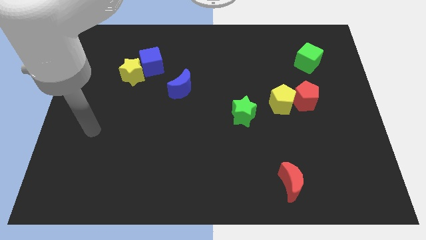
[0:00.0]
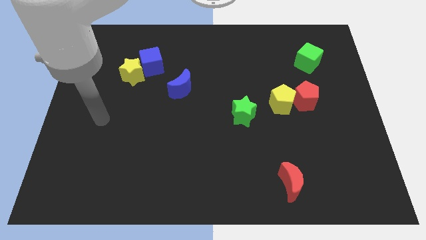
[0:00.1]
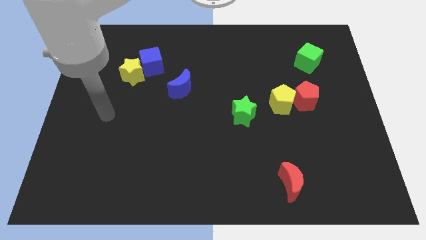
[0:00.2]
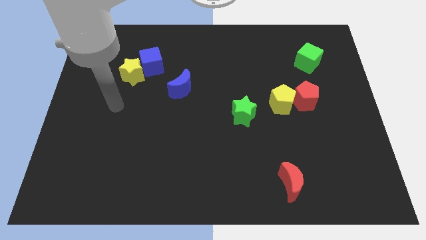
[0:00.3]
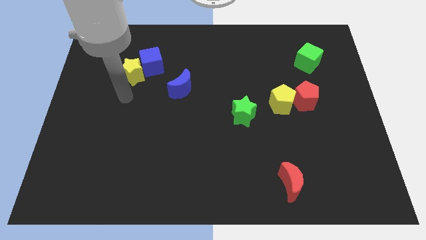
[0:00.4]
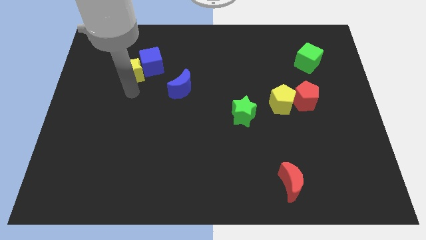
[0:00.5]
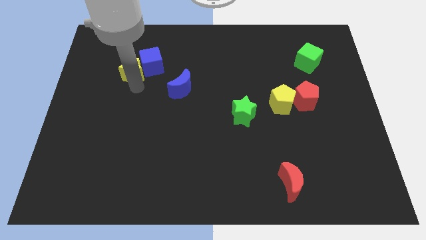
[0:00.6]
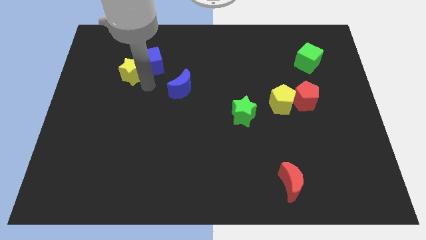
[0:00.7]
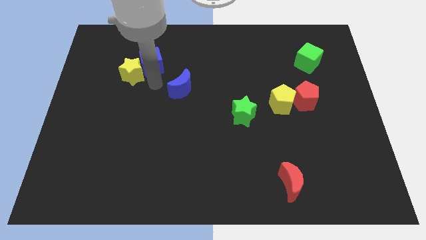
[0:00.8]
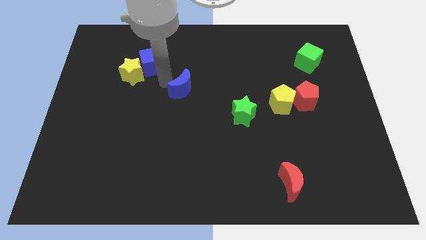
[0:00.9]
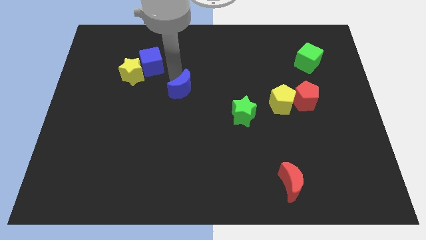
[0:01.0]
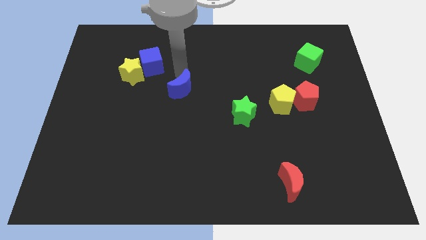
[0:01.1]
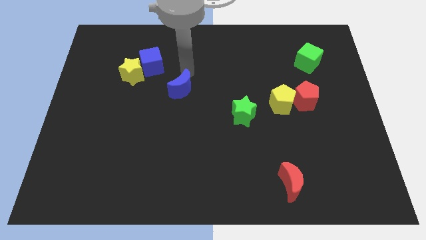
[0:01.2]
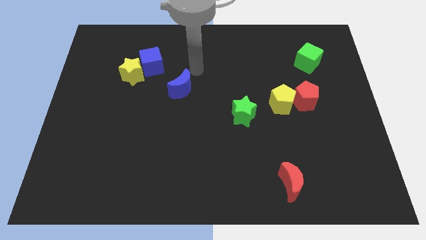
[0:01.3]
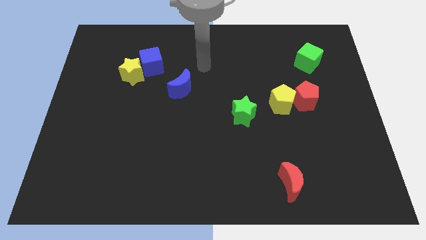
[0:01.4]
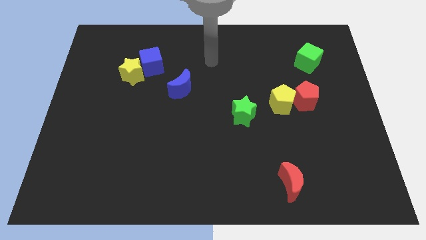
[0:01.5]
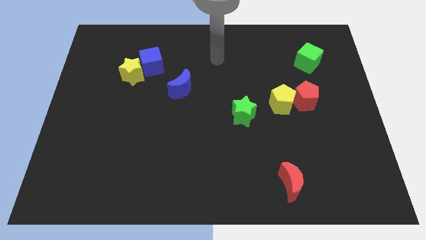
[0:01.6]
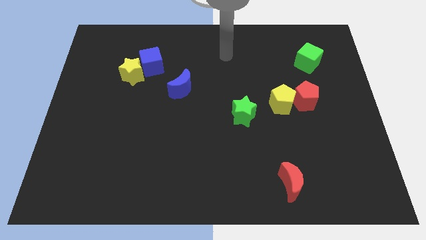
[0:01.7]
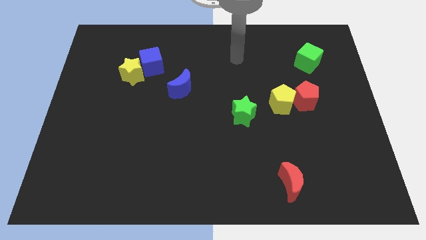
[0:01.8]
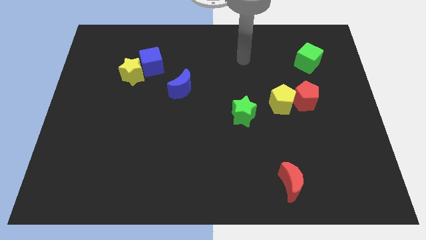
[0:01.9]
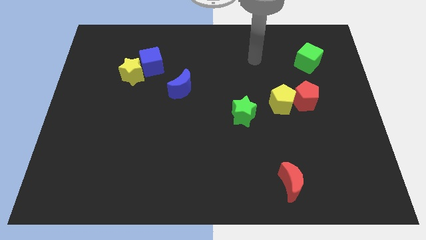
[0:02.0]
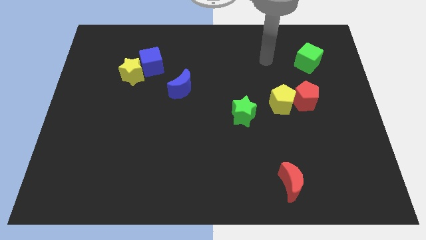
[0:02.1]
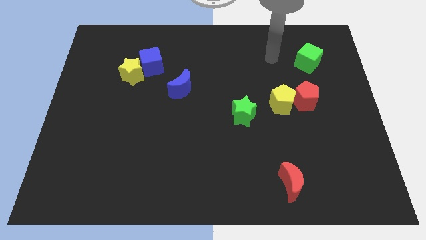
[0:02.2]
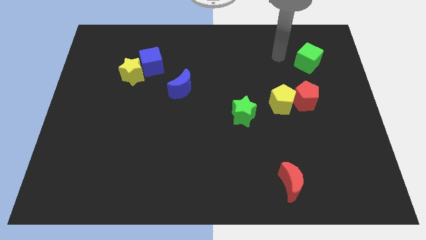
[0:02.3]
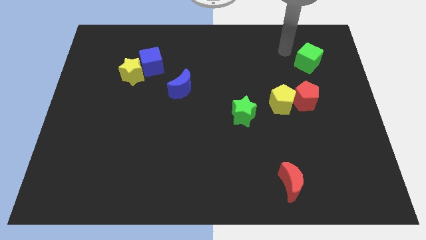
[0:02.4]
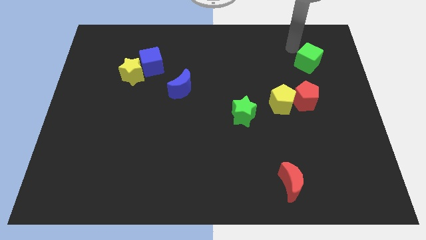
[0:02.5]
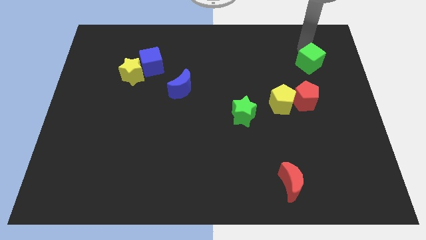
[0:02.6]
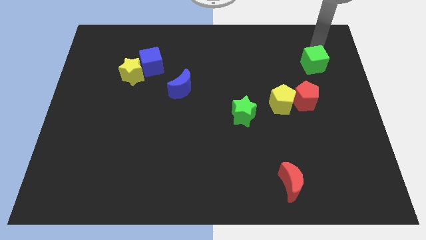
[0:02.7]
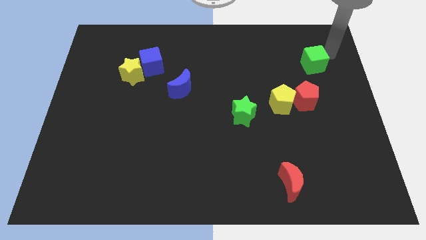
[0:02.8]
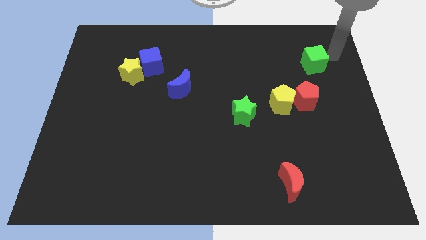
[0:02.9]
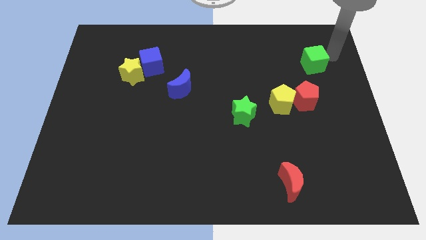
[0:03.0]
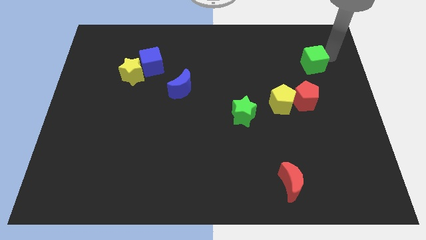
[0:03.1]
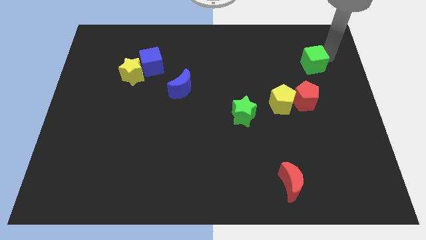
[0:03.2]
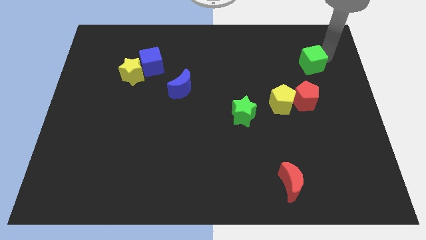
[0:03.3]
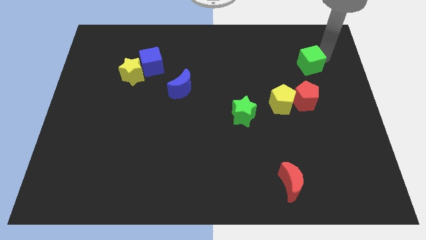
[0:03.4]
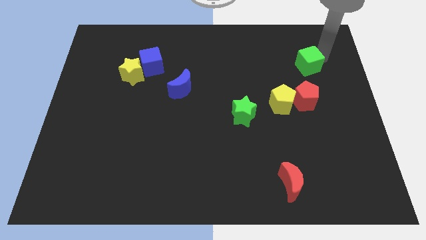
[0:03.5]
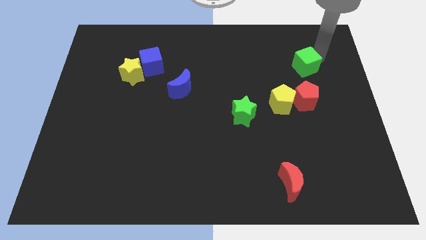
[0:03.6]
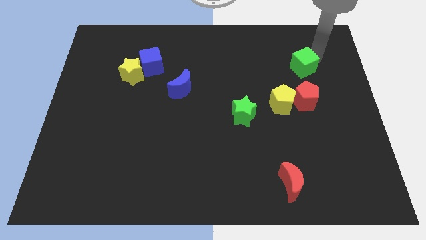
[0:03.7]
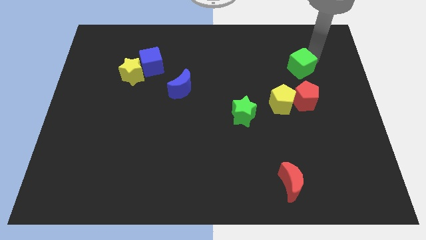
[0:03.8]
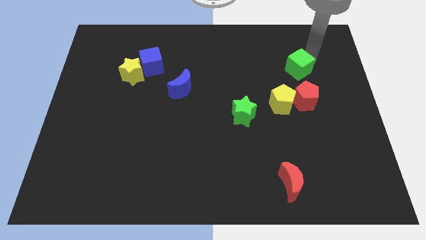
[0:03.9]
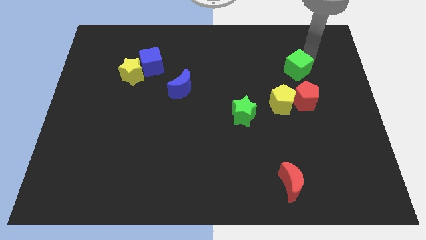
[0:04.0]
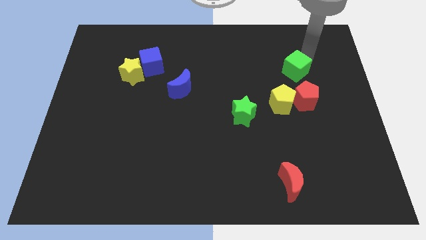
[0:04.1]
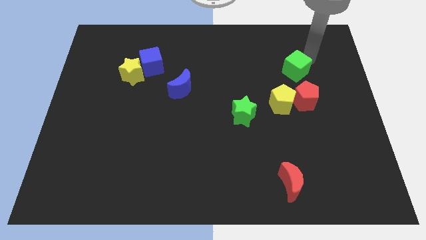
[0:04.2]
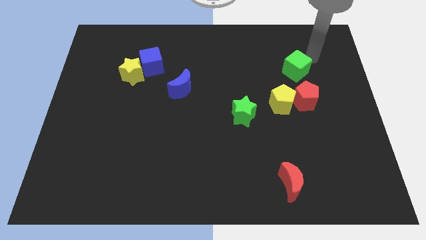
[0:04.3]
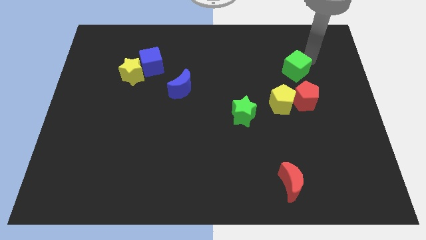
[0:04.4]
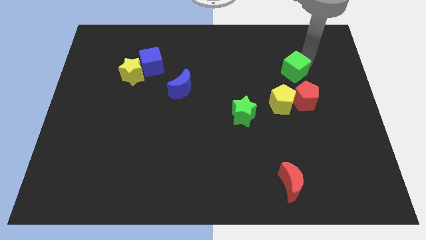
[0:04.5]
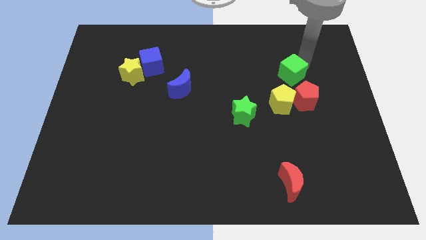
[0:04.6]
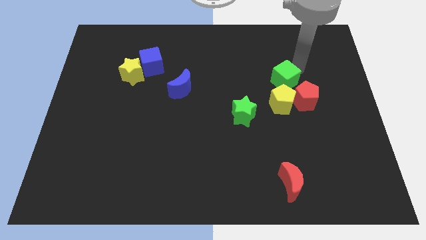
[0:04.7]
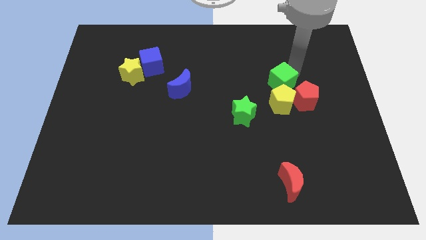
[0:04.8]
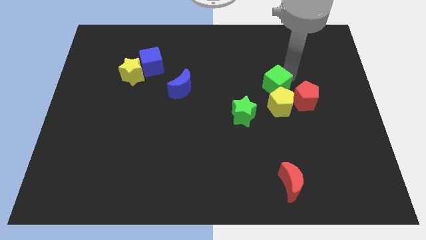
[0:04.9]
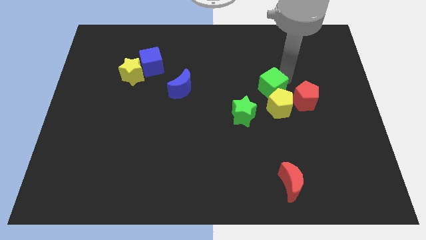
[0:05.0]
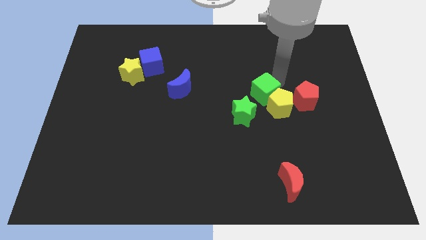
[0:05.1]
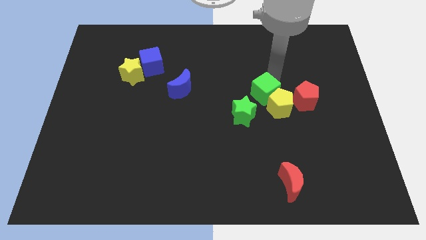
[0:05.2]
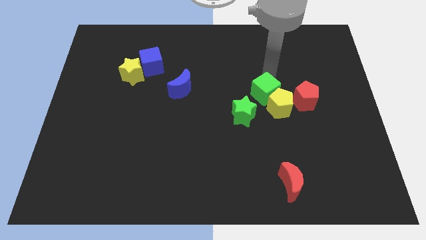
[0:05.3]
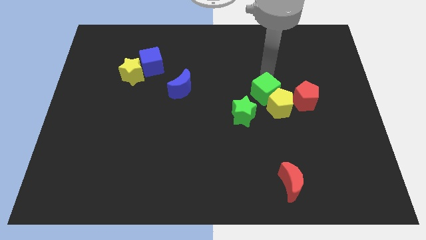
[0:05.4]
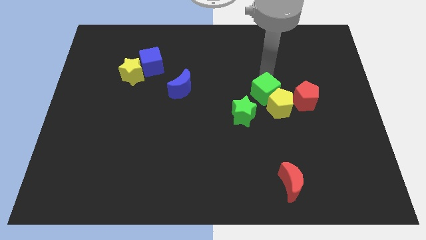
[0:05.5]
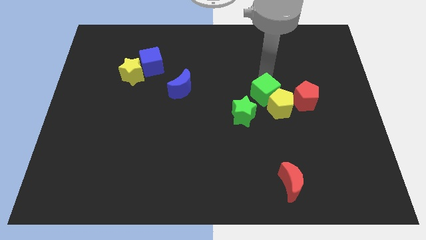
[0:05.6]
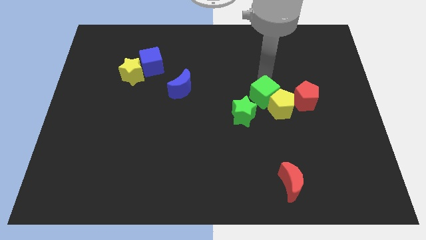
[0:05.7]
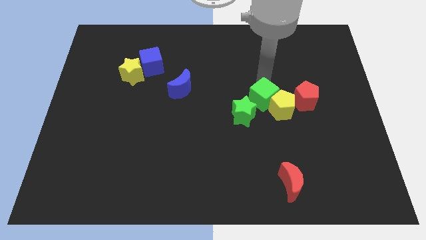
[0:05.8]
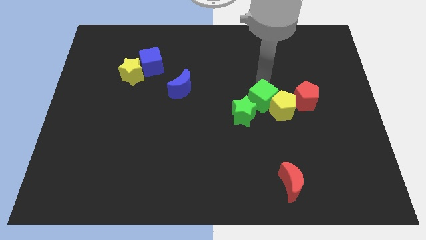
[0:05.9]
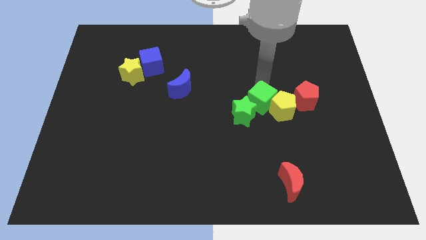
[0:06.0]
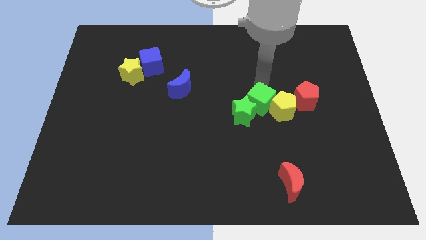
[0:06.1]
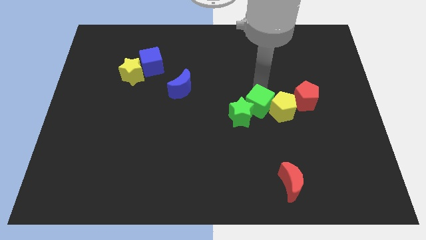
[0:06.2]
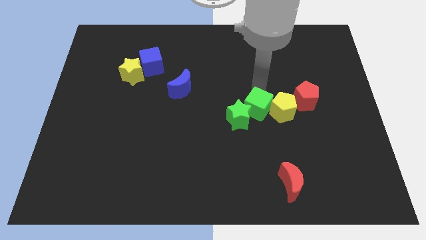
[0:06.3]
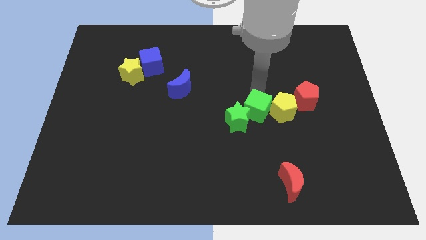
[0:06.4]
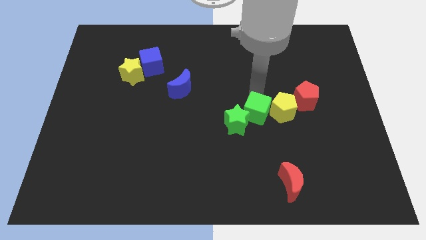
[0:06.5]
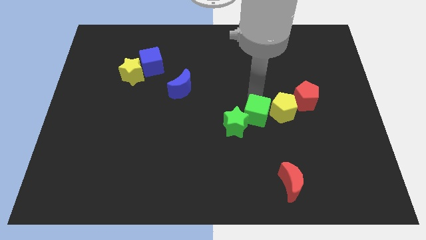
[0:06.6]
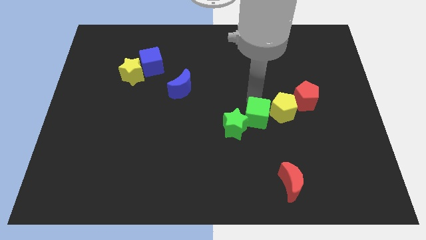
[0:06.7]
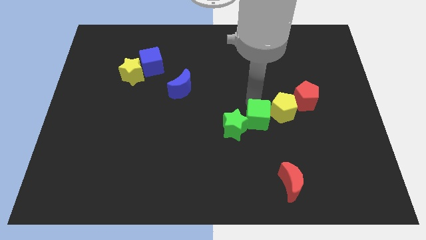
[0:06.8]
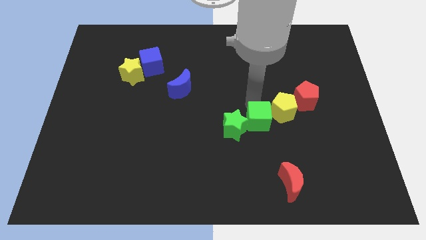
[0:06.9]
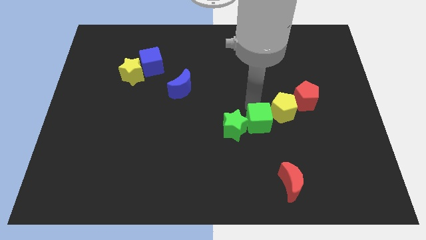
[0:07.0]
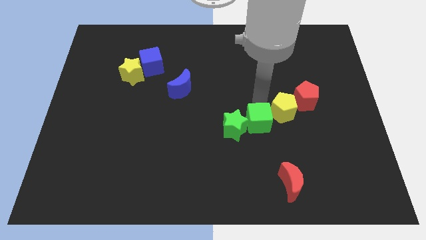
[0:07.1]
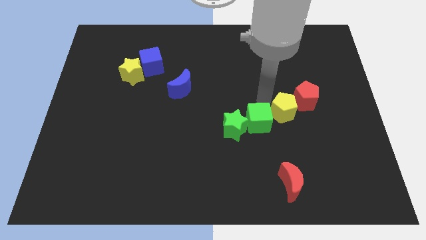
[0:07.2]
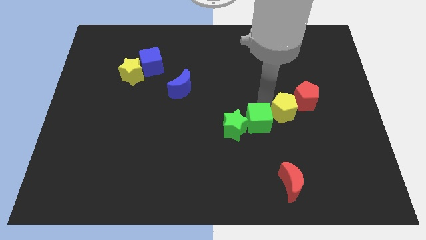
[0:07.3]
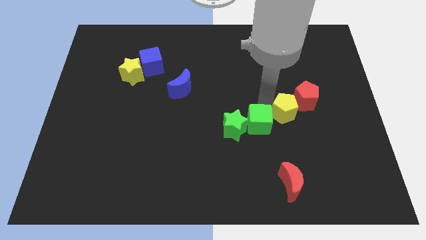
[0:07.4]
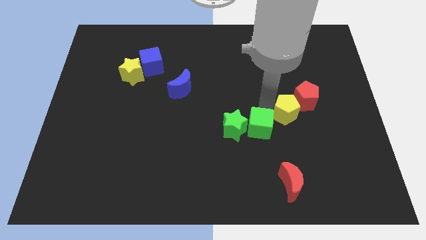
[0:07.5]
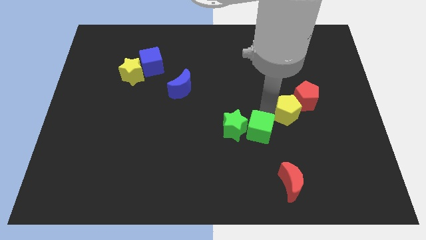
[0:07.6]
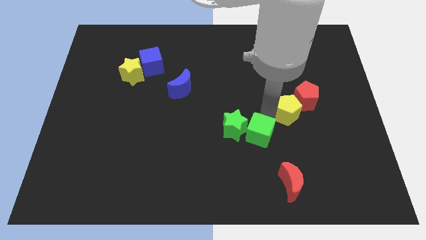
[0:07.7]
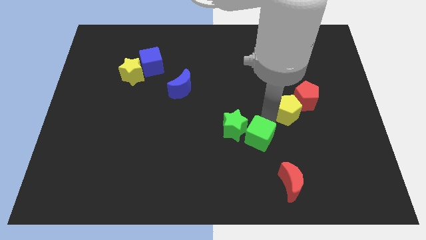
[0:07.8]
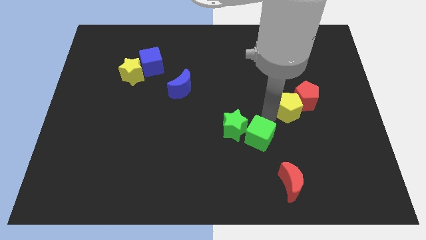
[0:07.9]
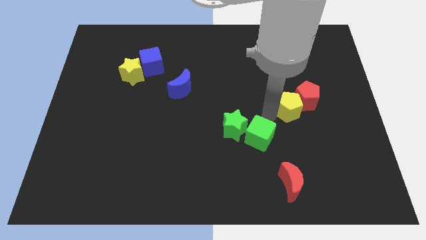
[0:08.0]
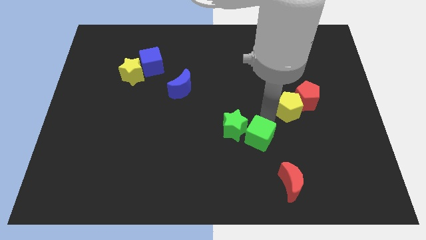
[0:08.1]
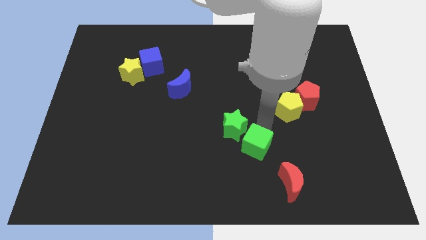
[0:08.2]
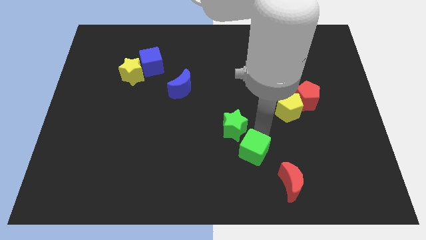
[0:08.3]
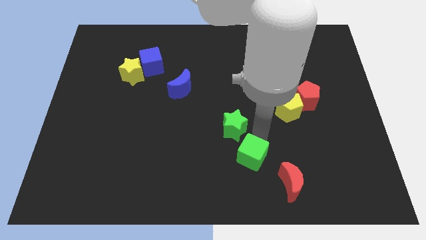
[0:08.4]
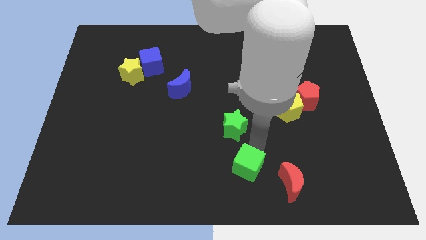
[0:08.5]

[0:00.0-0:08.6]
push the green cube to the bottom
